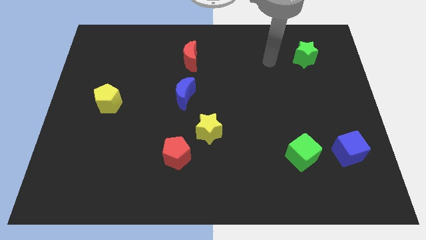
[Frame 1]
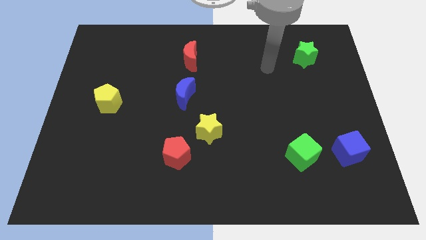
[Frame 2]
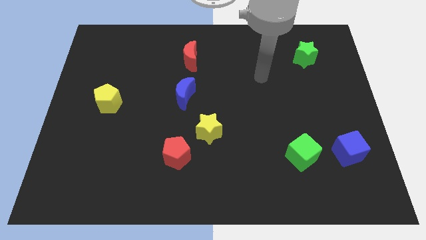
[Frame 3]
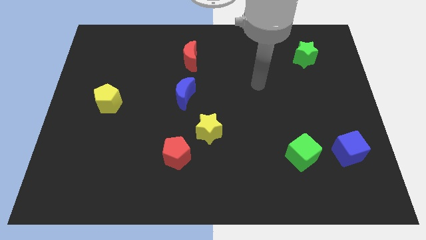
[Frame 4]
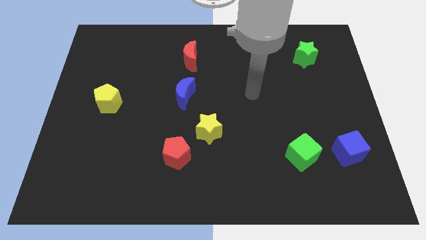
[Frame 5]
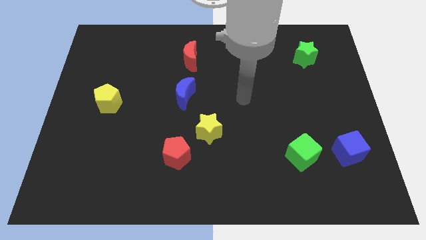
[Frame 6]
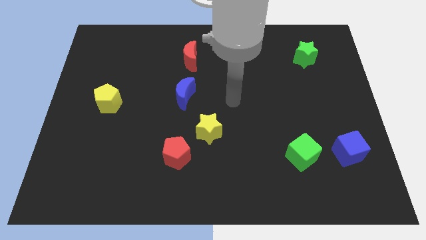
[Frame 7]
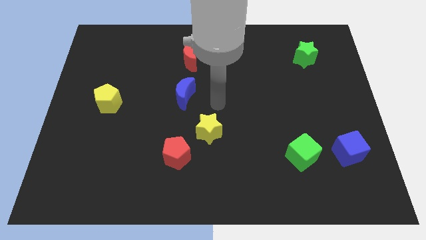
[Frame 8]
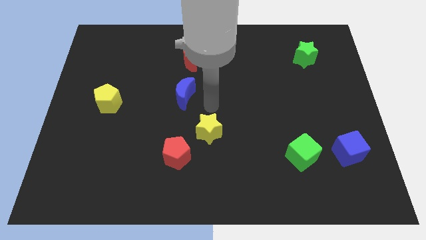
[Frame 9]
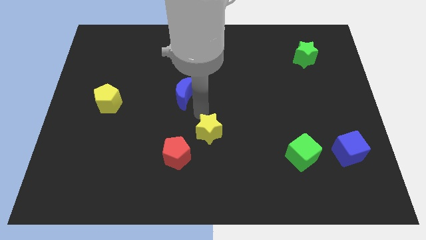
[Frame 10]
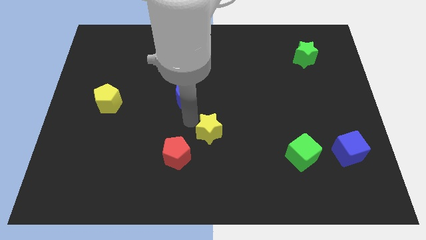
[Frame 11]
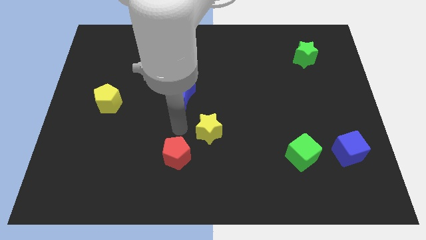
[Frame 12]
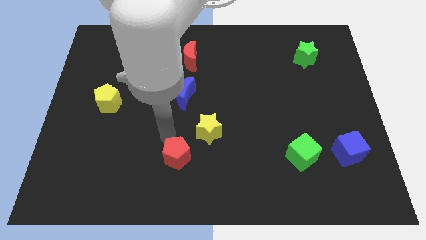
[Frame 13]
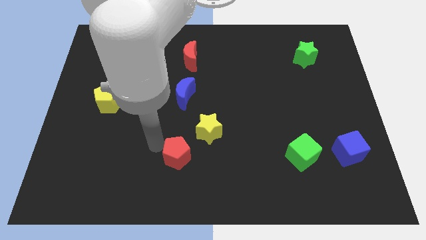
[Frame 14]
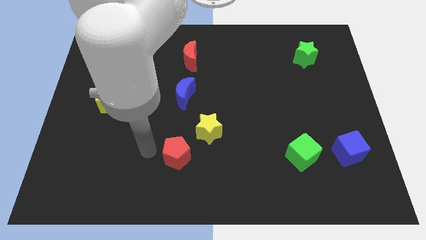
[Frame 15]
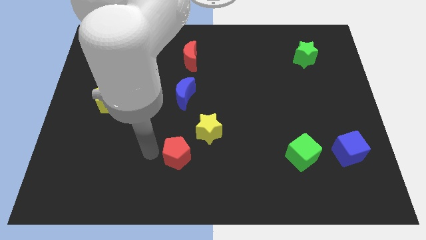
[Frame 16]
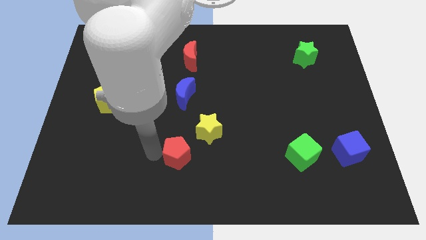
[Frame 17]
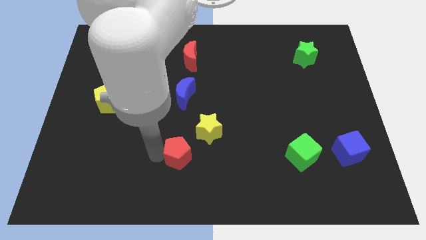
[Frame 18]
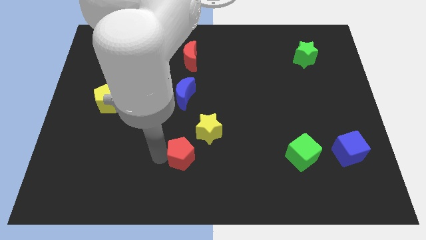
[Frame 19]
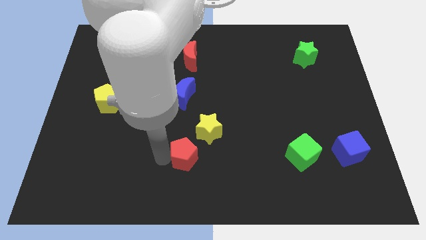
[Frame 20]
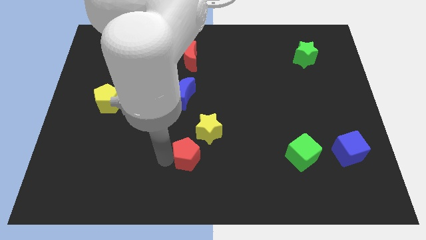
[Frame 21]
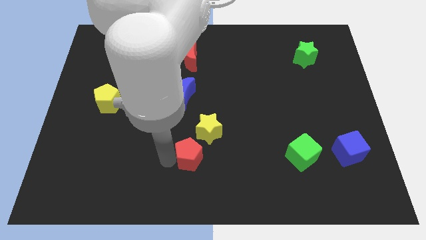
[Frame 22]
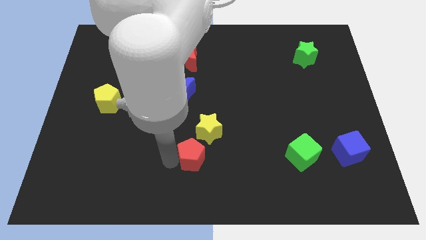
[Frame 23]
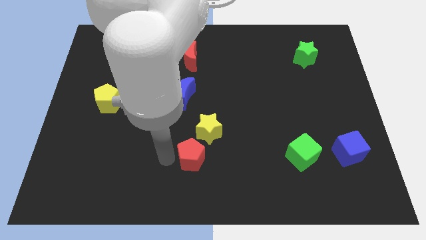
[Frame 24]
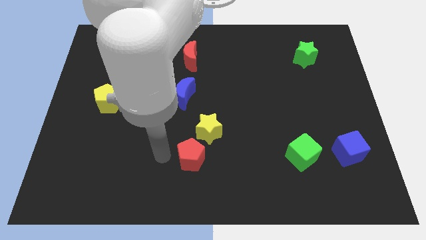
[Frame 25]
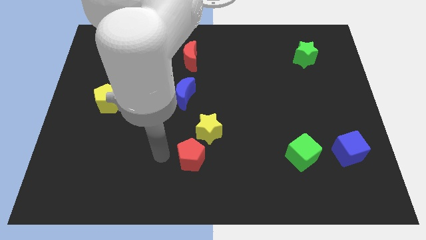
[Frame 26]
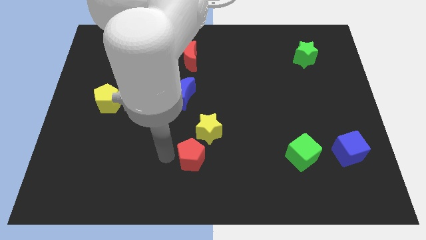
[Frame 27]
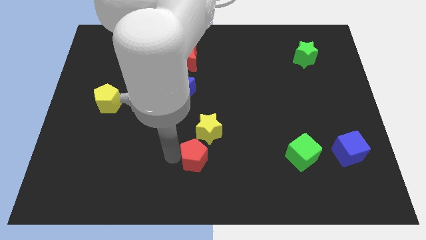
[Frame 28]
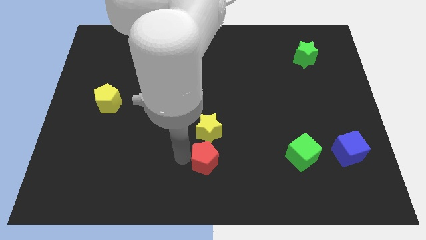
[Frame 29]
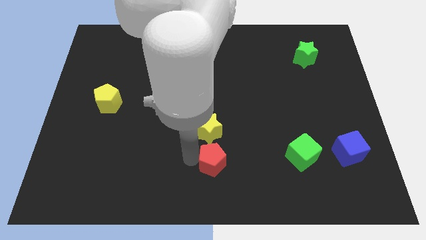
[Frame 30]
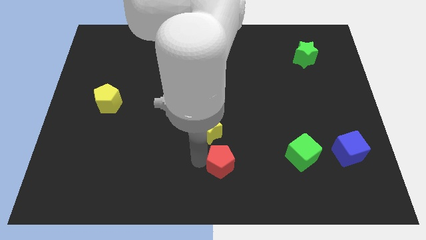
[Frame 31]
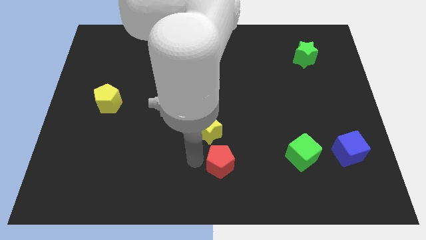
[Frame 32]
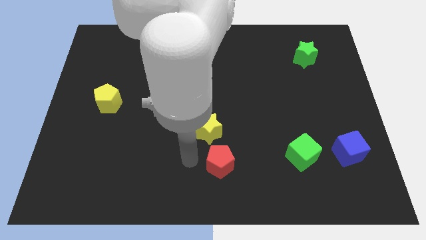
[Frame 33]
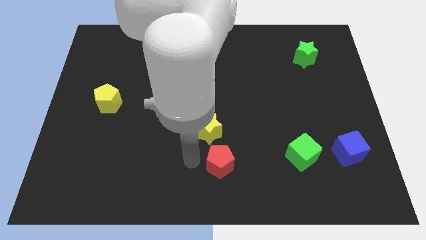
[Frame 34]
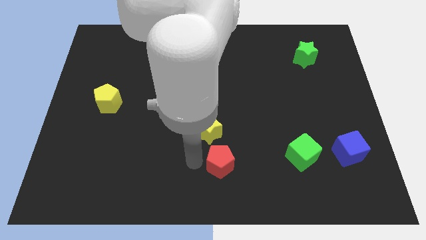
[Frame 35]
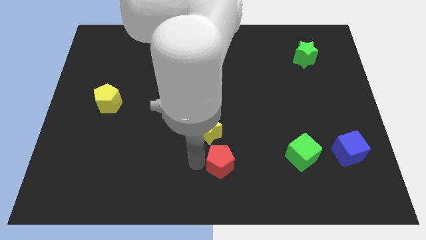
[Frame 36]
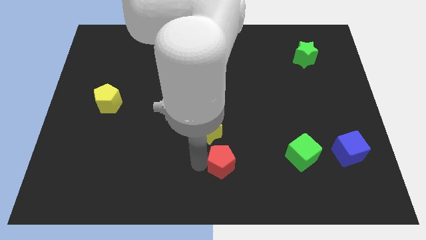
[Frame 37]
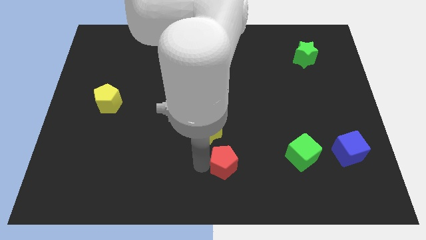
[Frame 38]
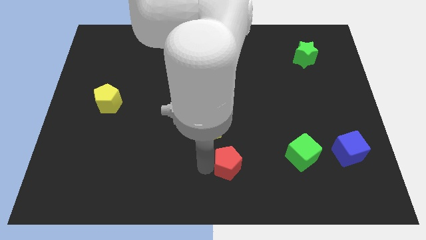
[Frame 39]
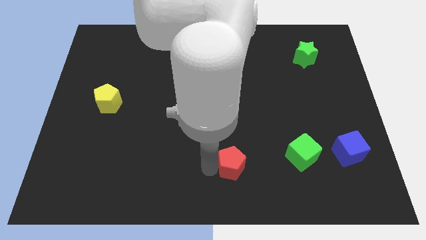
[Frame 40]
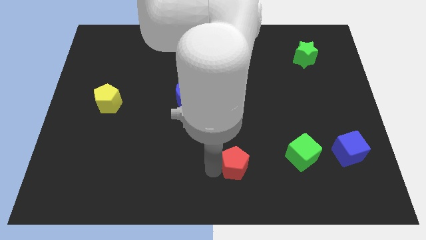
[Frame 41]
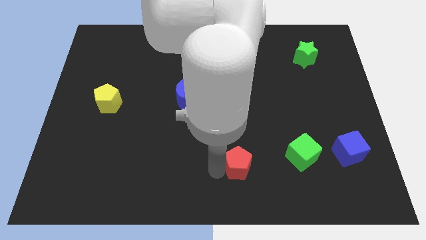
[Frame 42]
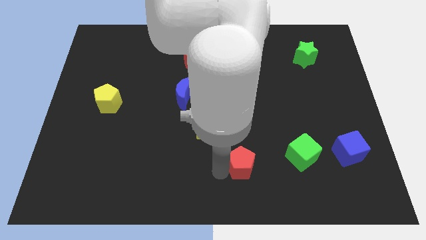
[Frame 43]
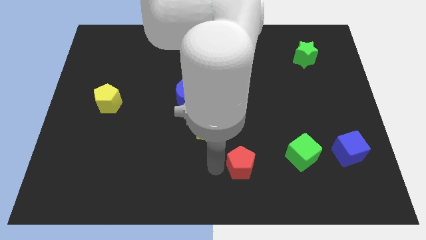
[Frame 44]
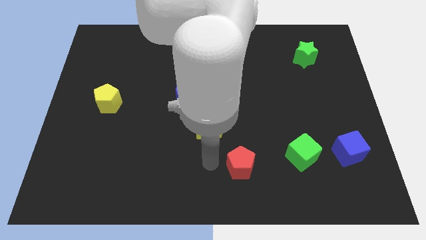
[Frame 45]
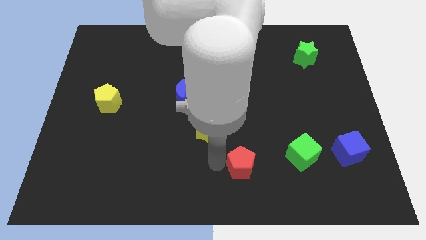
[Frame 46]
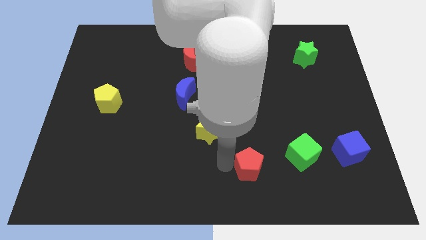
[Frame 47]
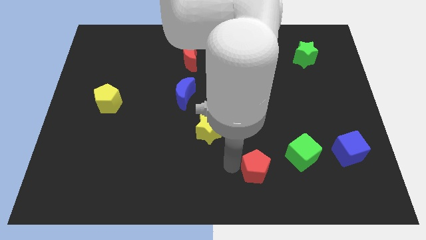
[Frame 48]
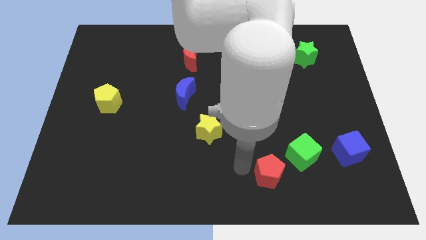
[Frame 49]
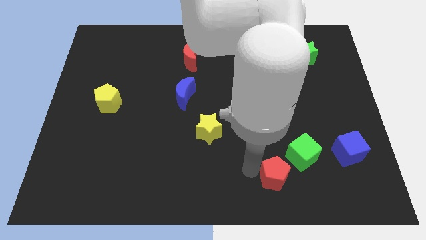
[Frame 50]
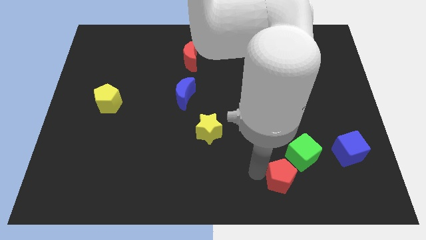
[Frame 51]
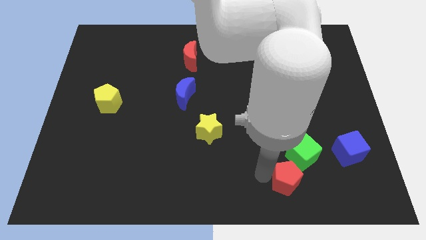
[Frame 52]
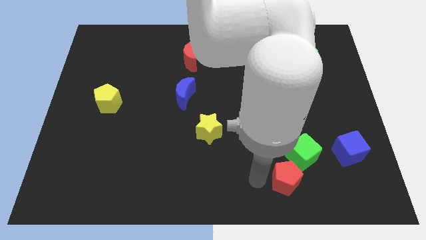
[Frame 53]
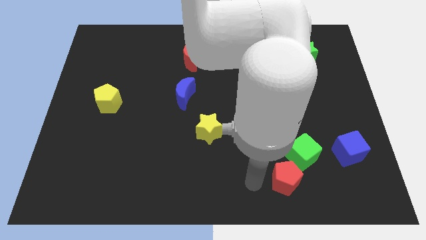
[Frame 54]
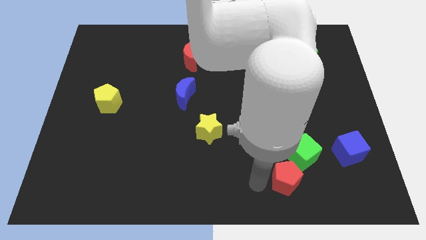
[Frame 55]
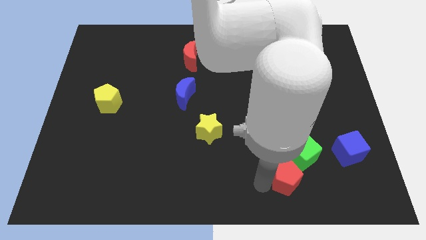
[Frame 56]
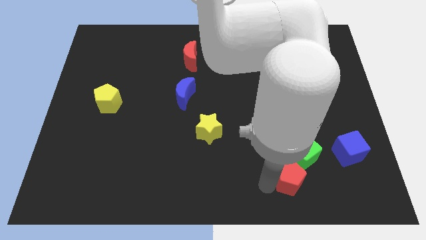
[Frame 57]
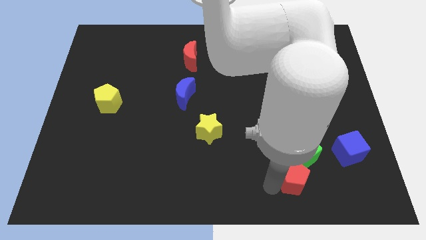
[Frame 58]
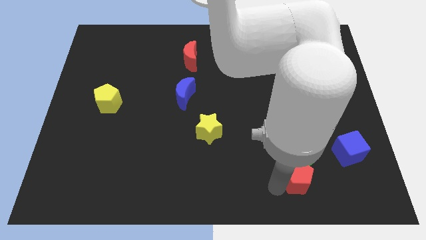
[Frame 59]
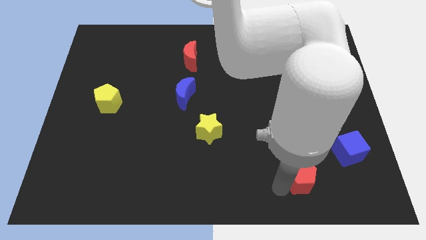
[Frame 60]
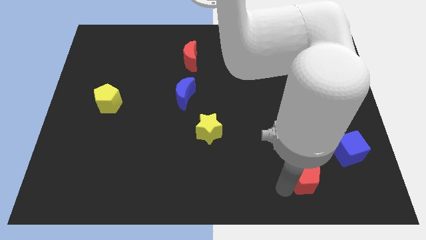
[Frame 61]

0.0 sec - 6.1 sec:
push the red pentagon diagonally down and to the right of the green cube
